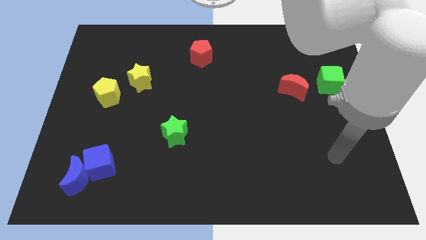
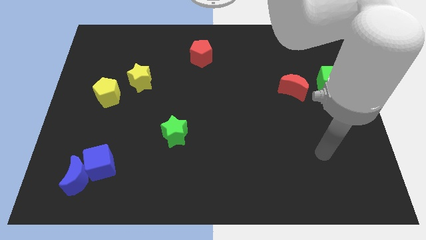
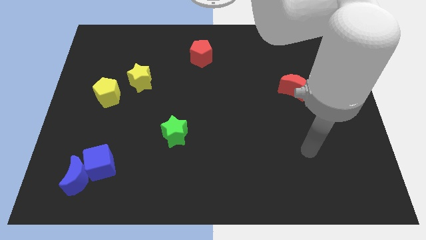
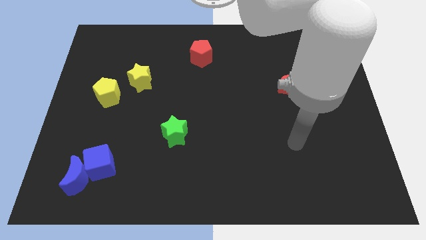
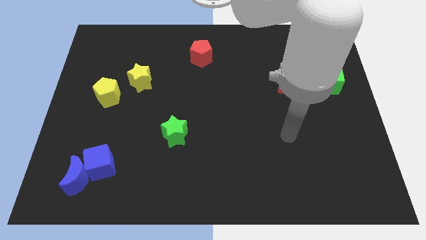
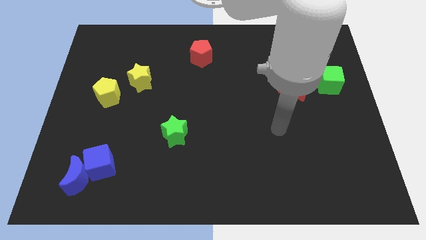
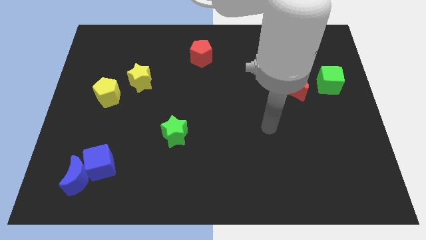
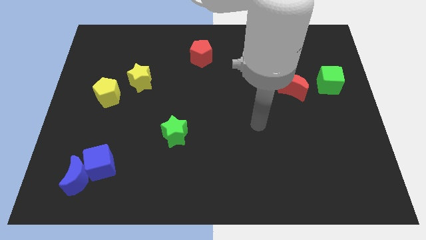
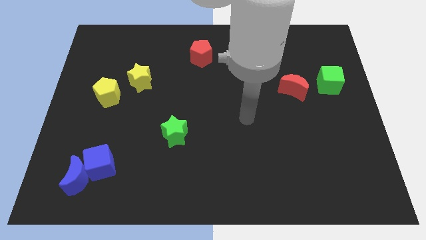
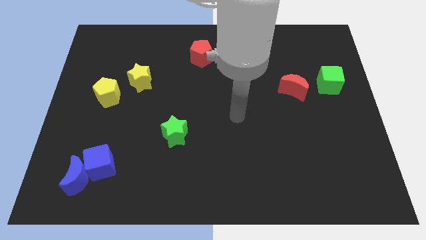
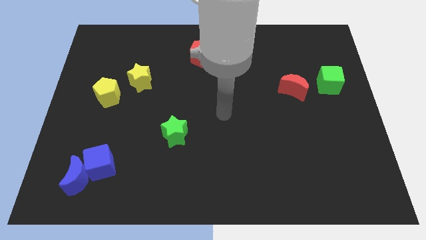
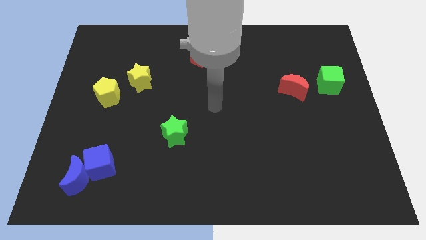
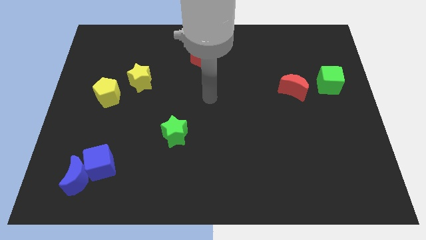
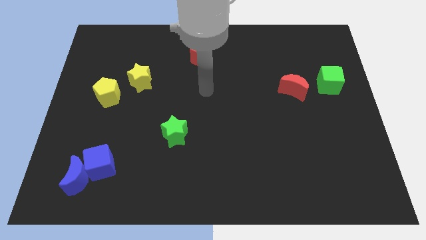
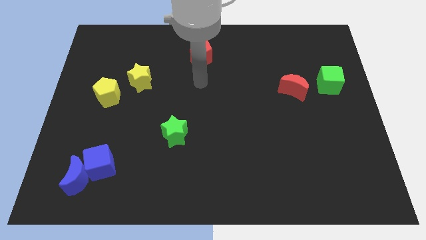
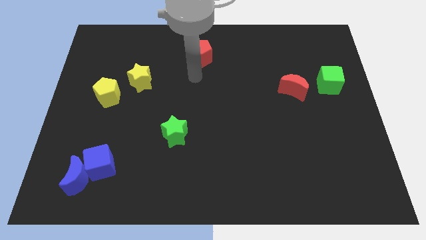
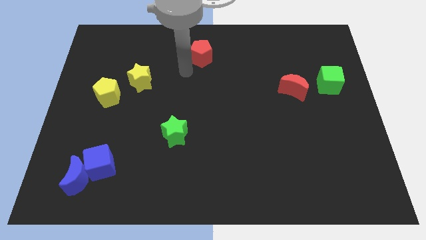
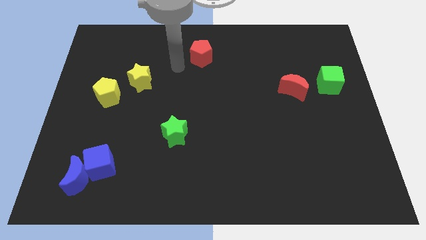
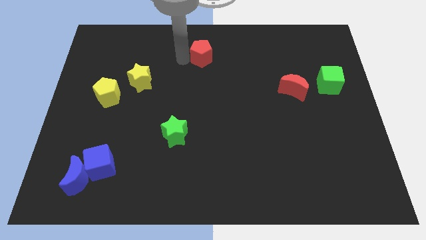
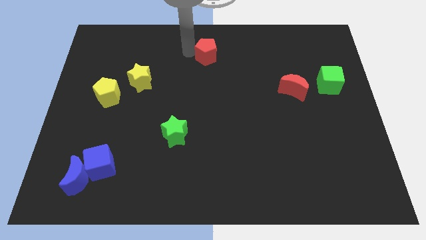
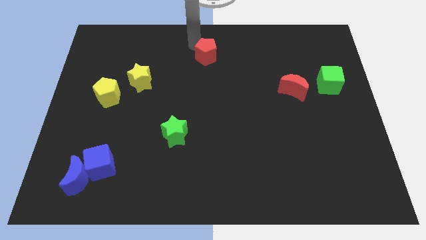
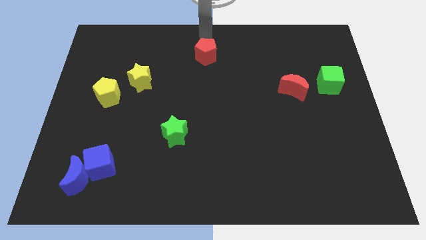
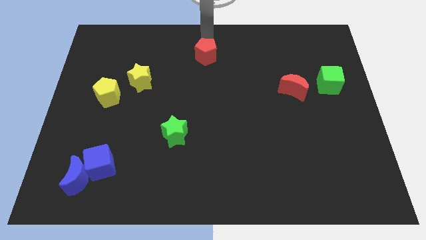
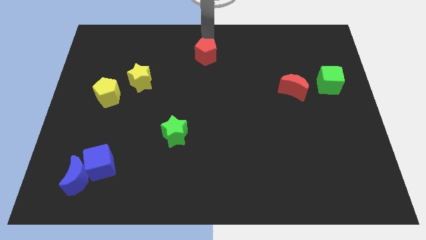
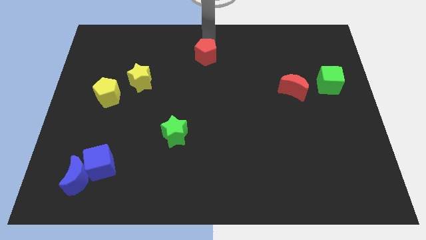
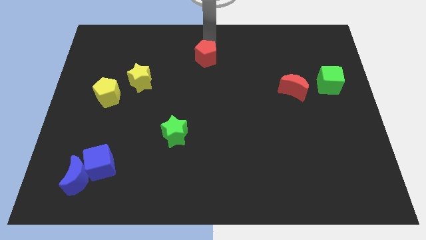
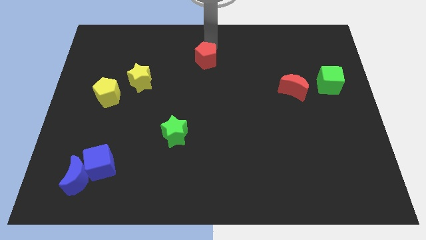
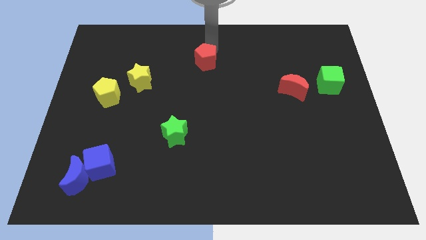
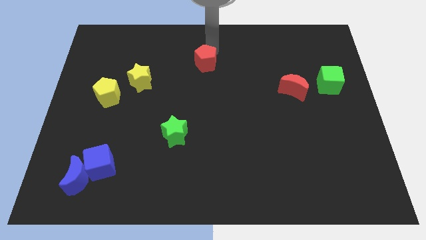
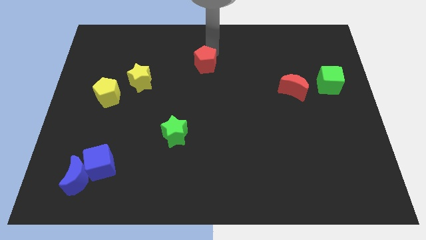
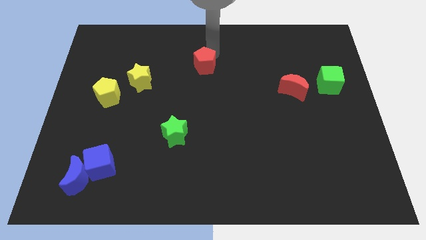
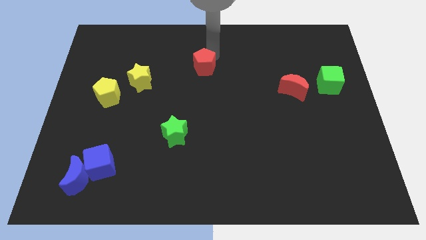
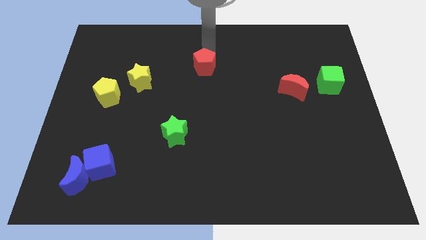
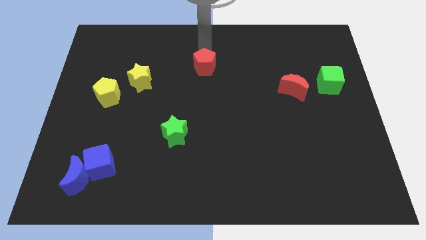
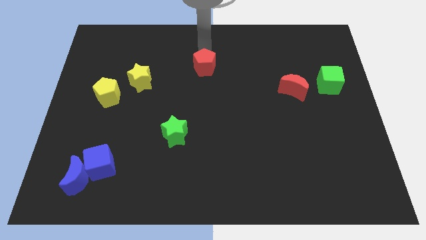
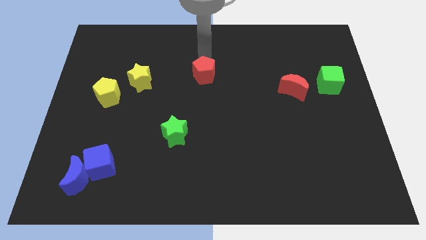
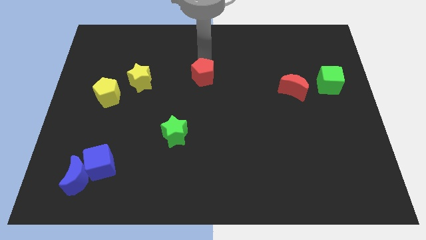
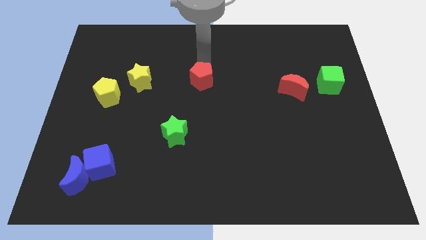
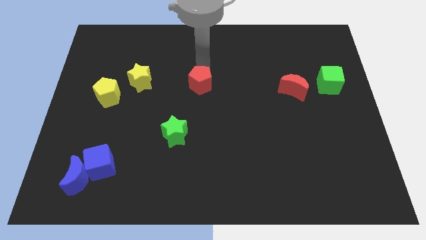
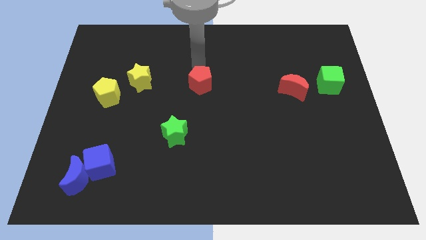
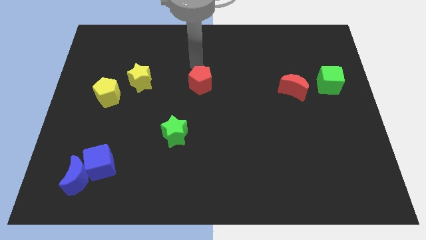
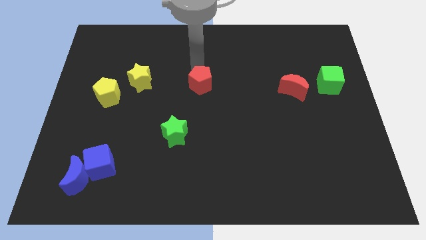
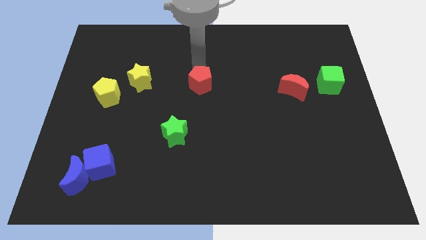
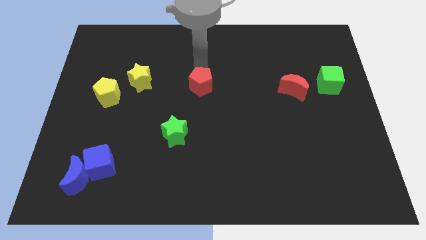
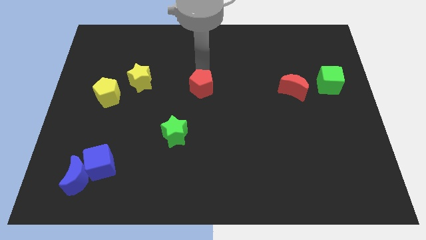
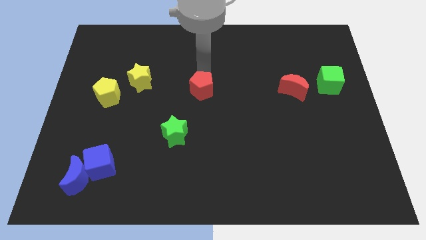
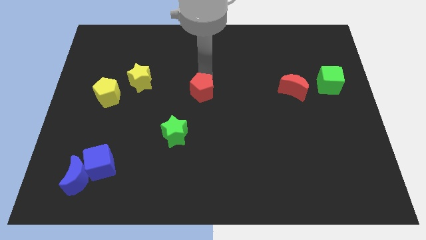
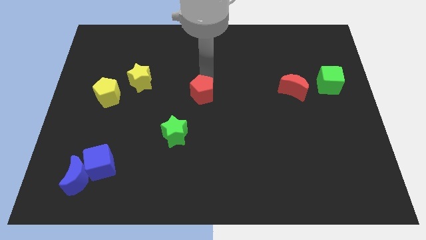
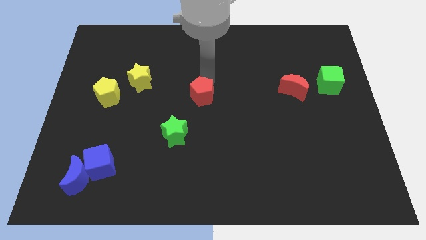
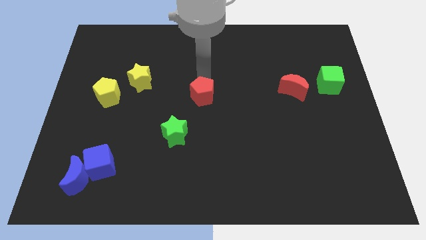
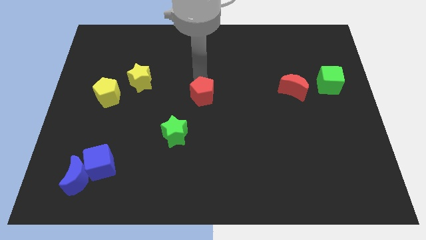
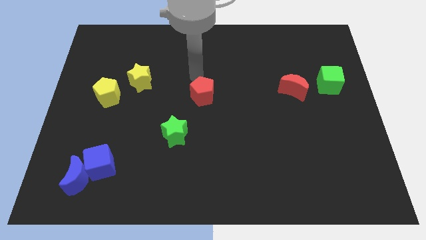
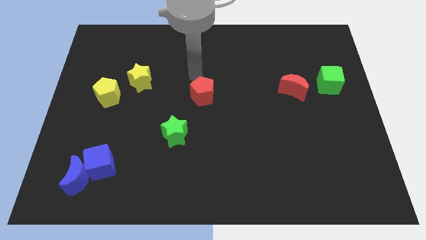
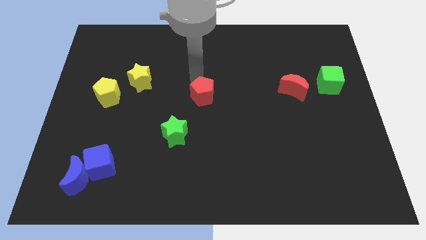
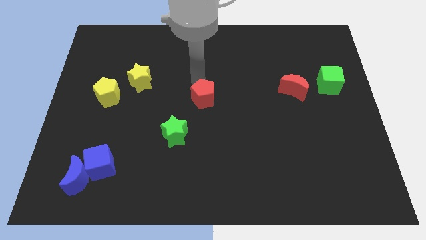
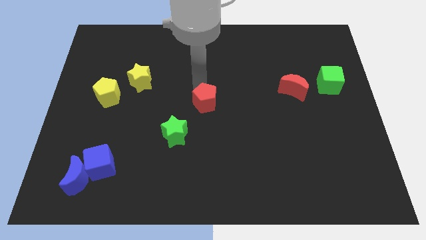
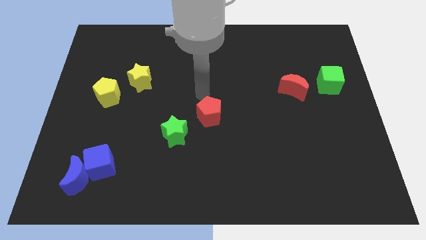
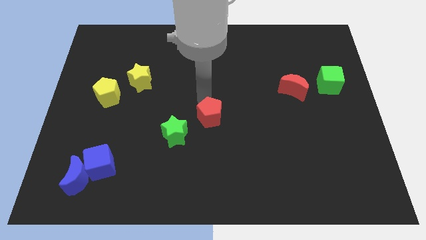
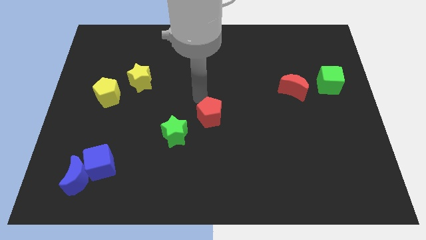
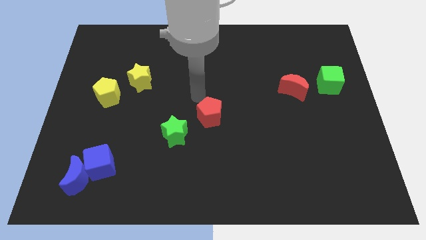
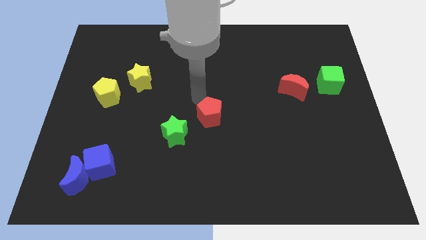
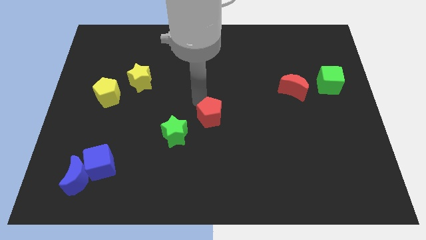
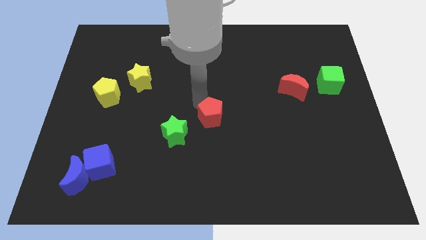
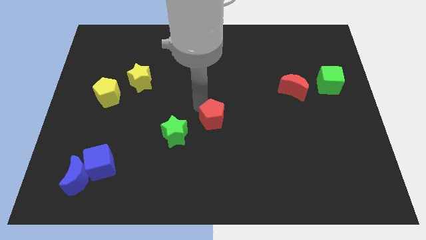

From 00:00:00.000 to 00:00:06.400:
put the red pentagon right of the green star
